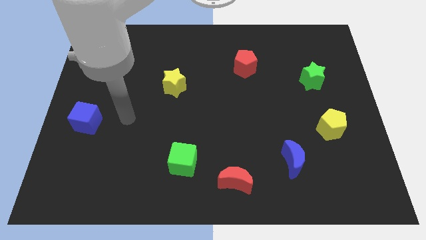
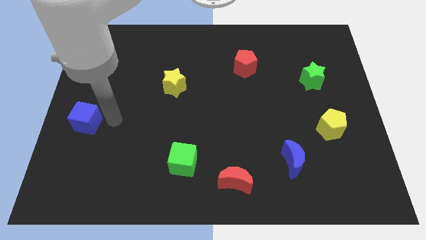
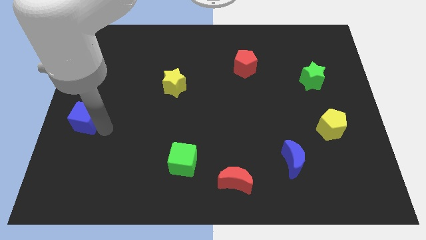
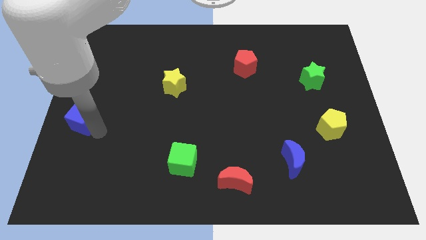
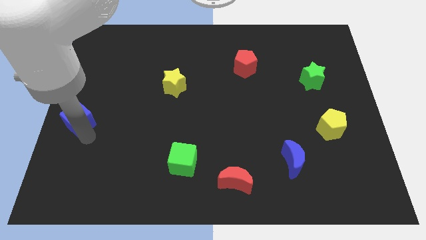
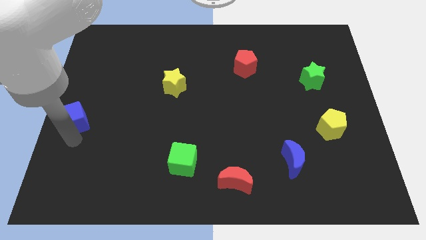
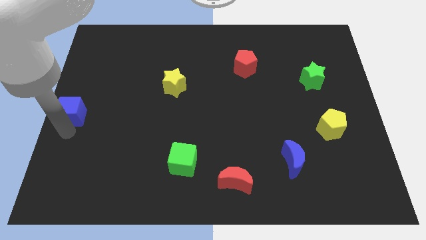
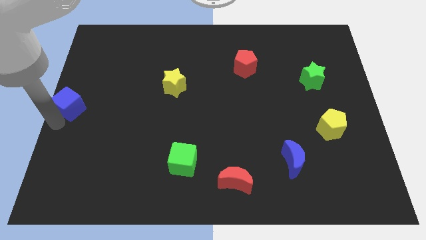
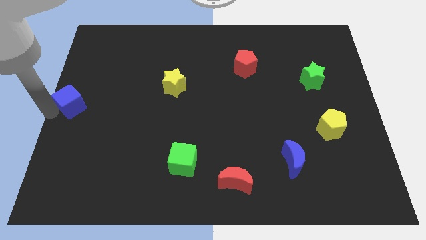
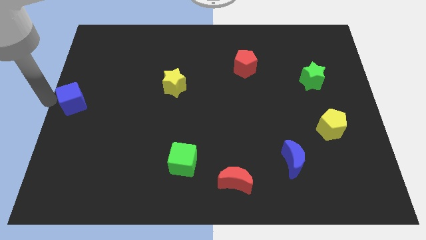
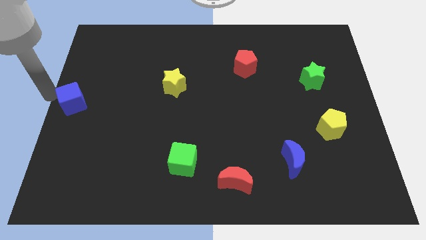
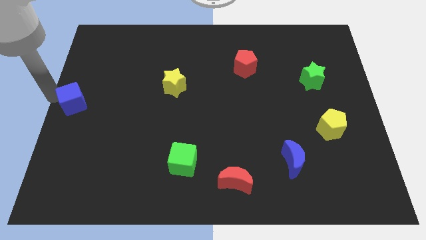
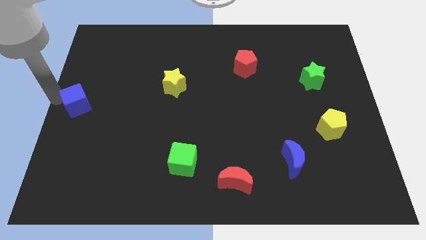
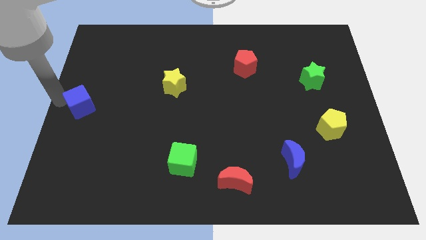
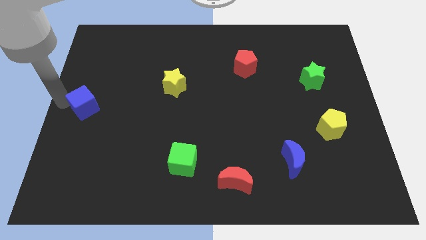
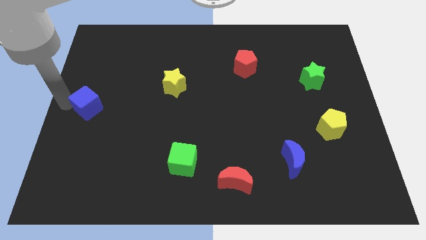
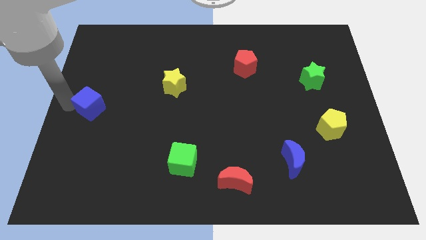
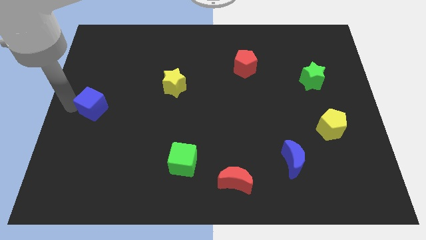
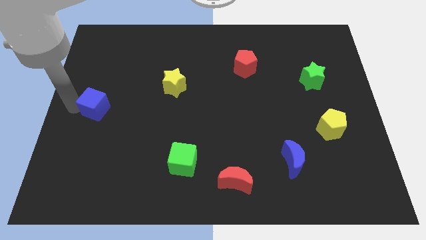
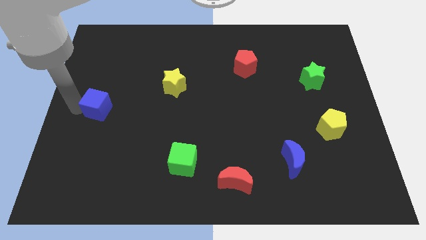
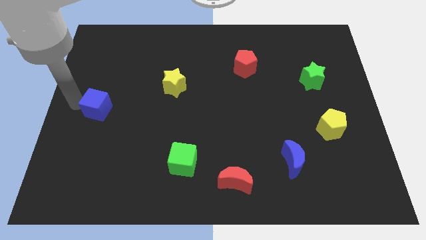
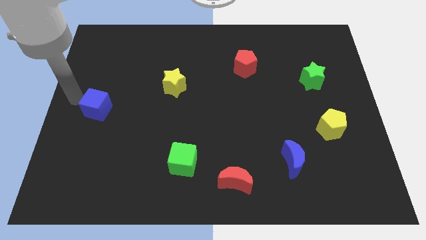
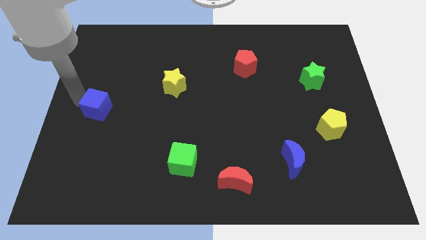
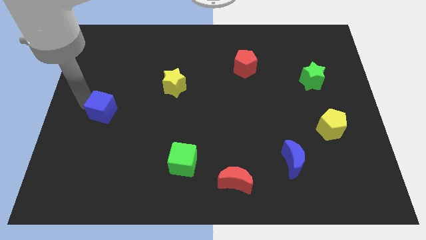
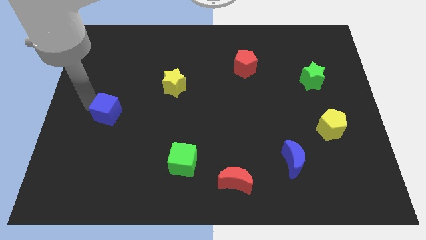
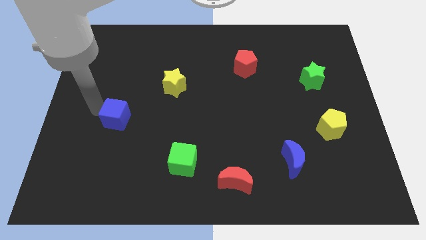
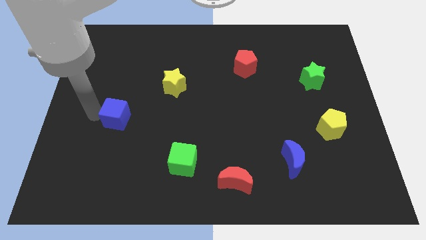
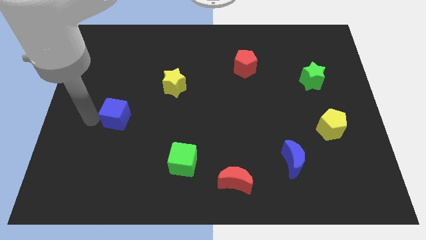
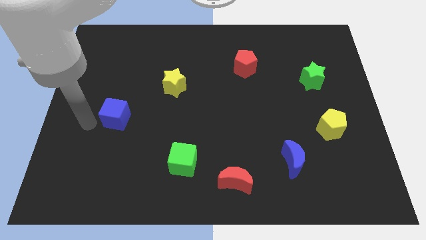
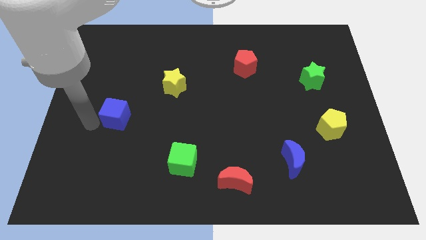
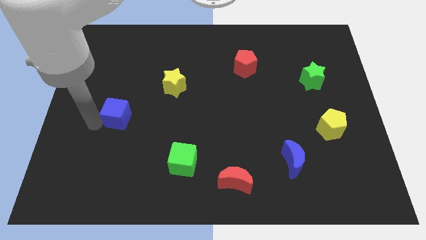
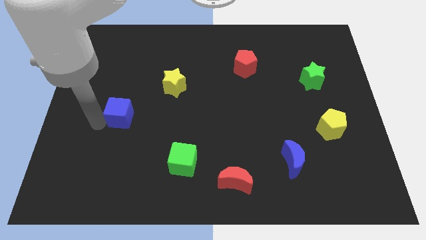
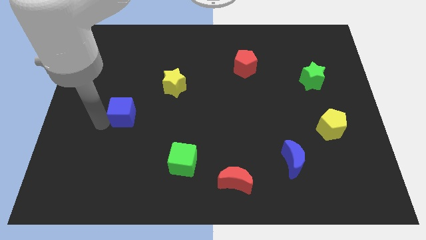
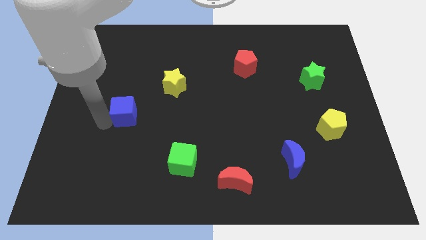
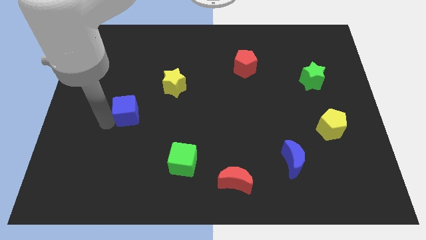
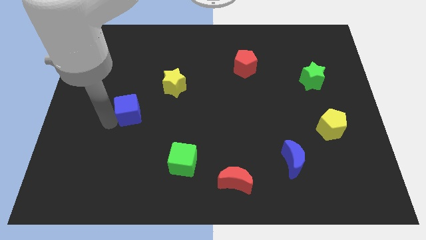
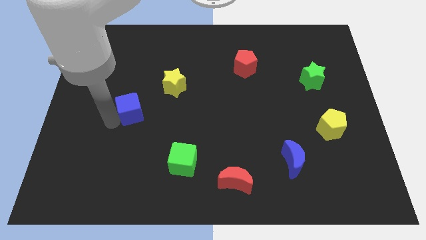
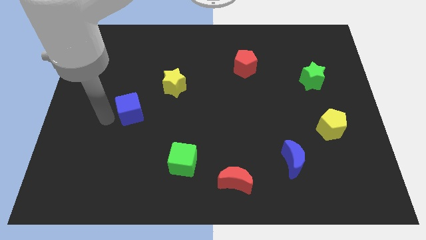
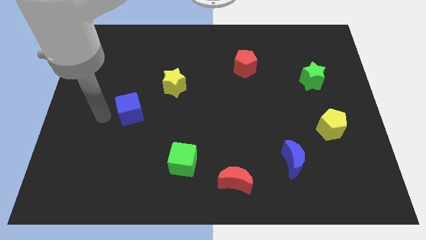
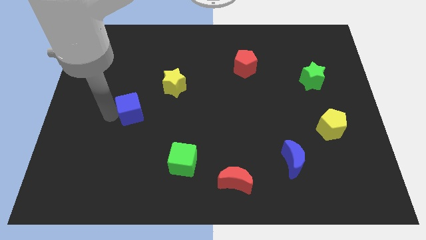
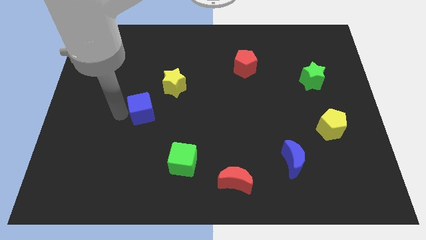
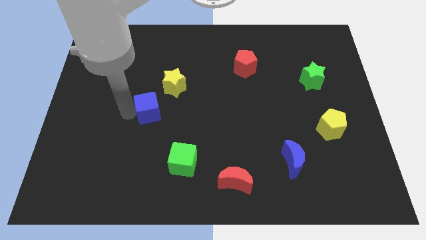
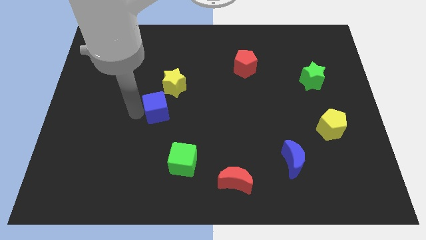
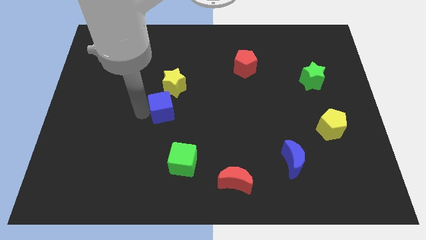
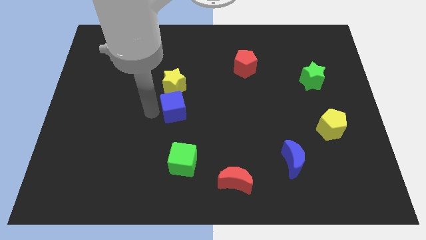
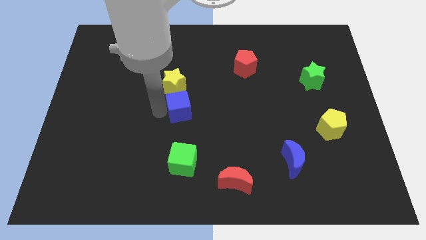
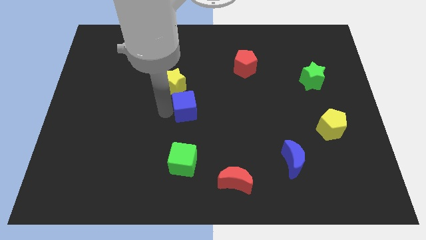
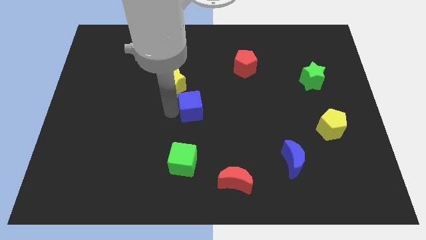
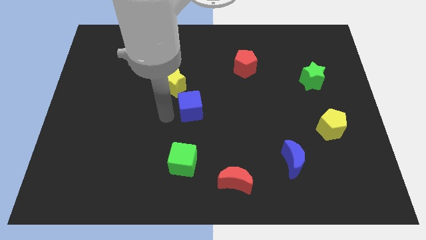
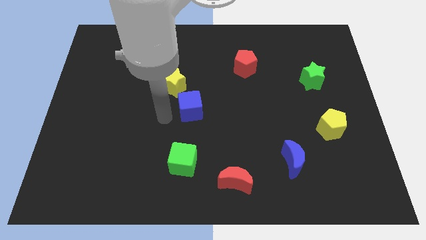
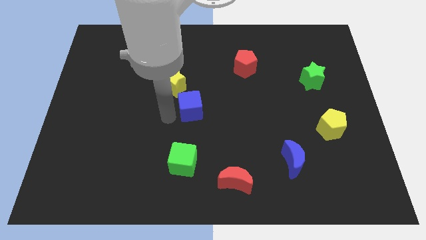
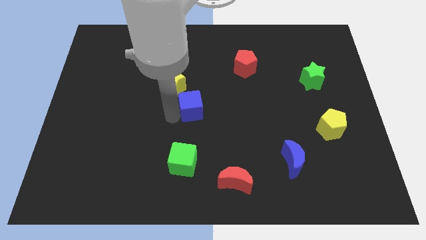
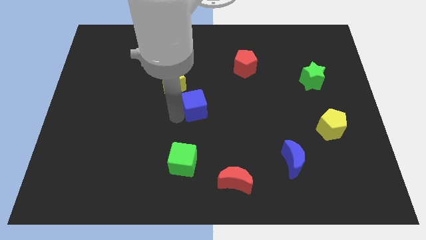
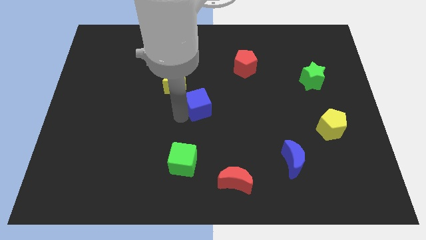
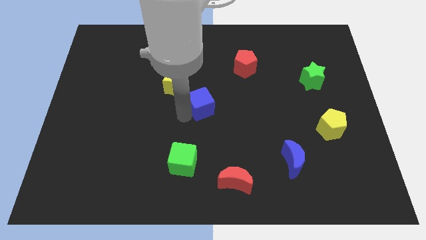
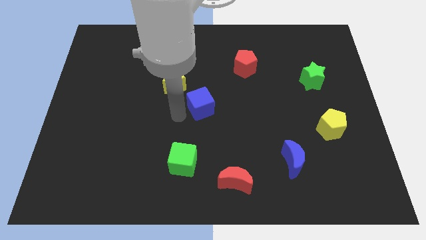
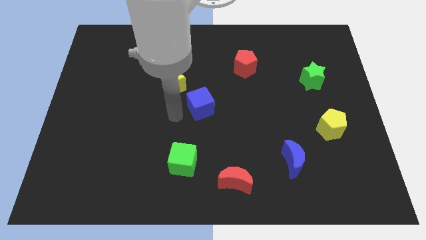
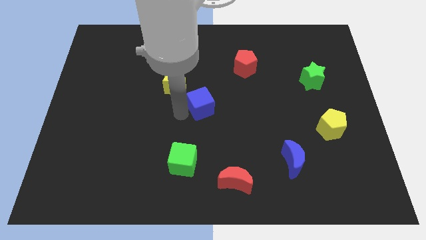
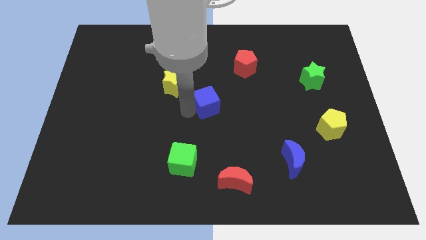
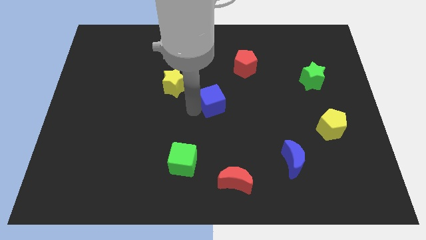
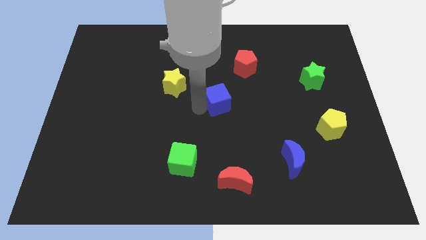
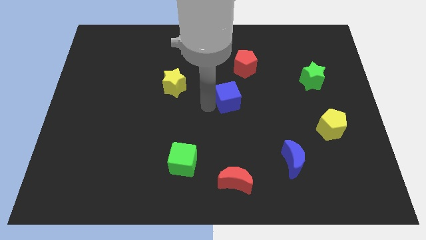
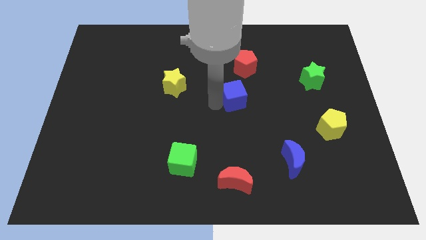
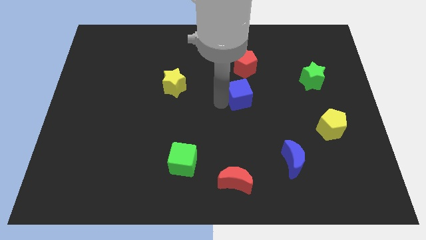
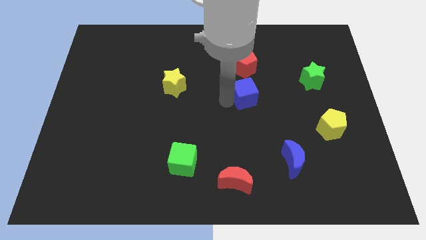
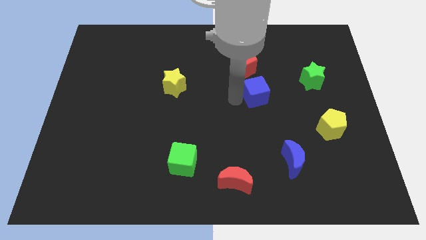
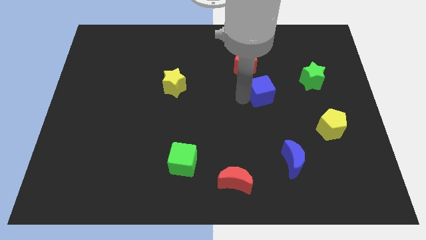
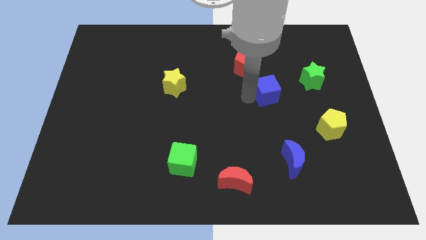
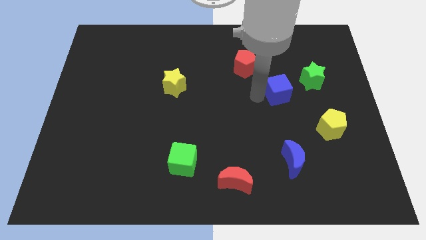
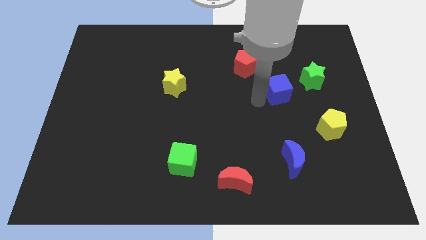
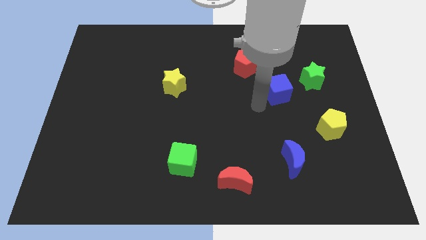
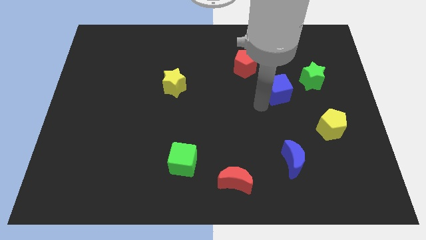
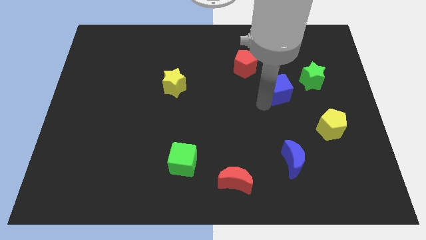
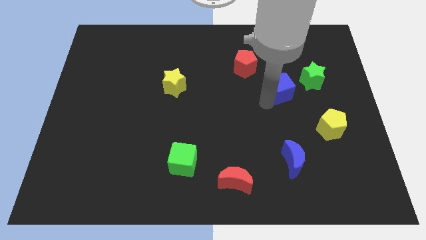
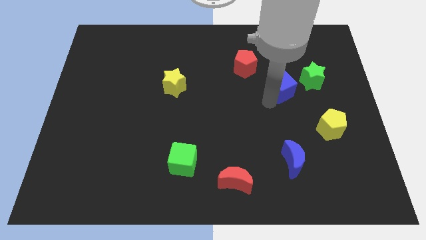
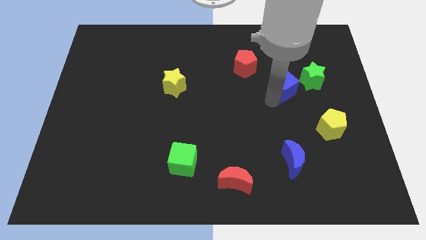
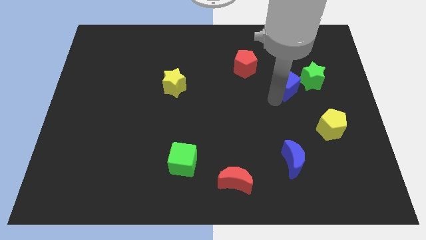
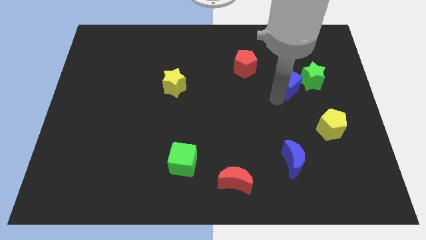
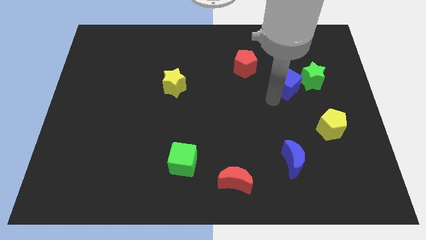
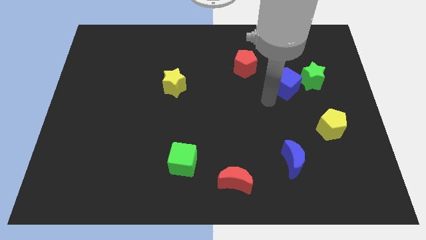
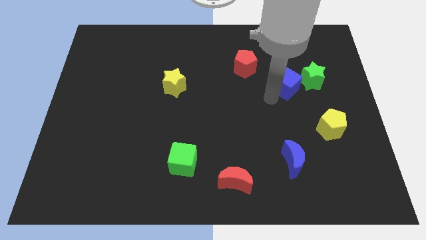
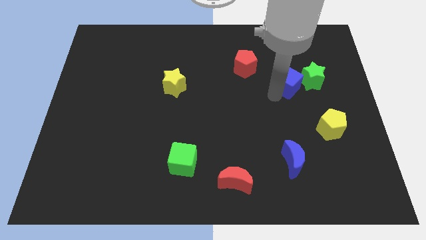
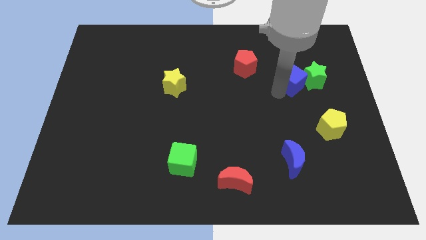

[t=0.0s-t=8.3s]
push the blue cube towards the green star
